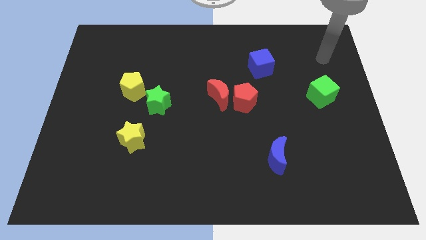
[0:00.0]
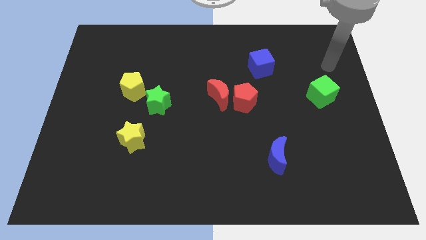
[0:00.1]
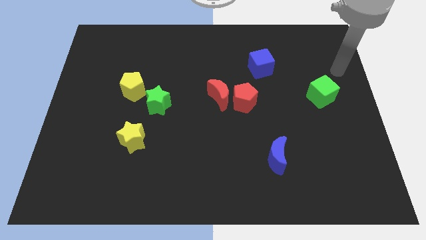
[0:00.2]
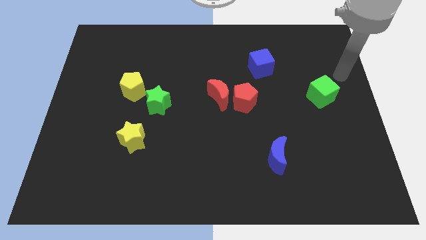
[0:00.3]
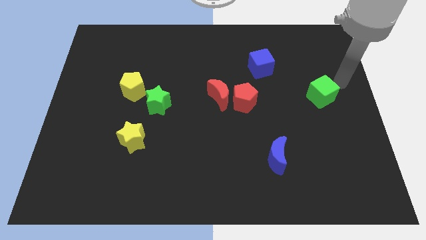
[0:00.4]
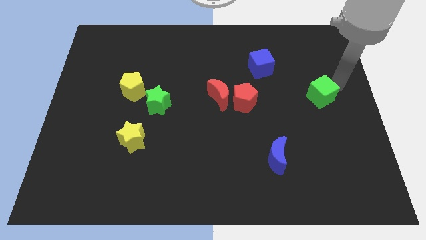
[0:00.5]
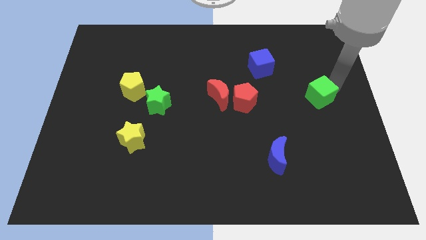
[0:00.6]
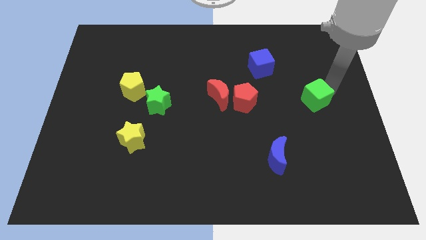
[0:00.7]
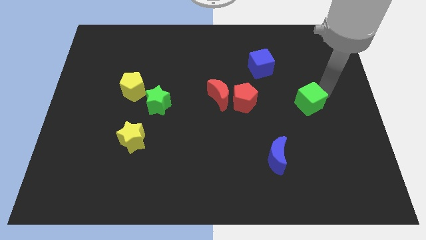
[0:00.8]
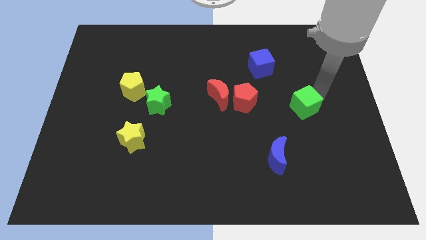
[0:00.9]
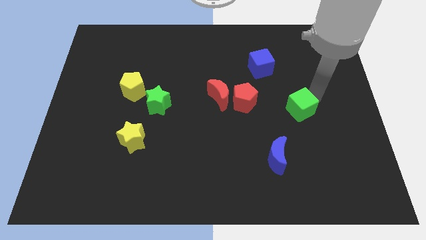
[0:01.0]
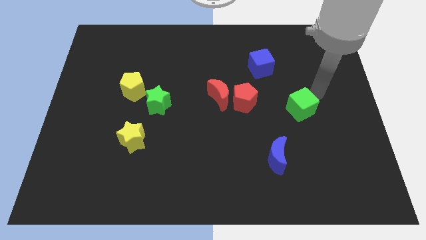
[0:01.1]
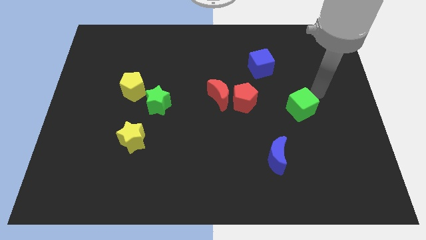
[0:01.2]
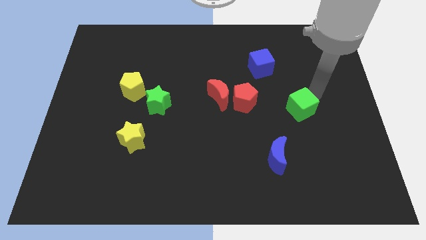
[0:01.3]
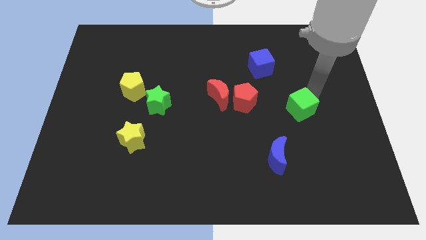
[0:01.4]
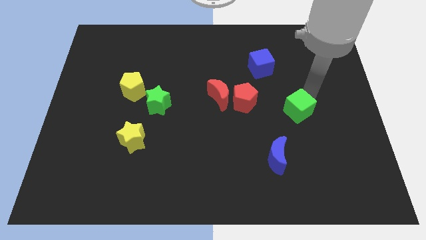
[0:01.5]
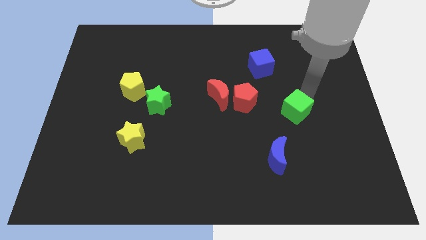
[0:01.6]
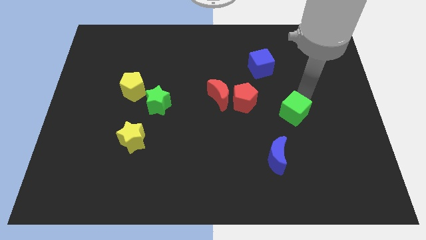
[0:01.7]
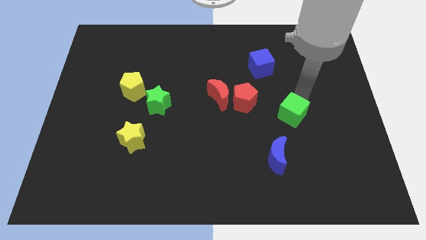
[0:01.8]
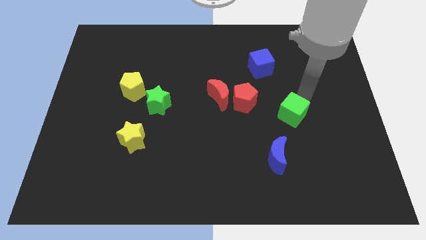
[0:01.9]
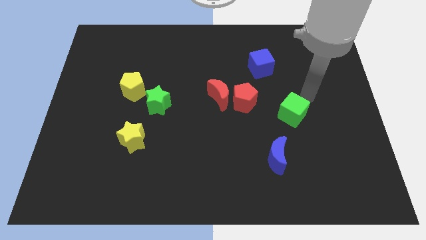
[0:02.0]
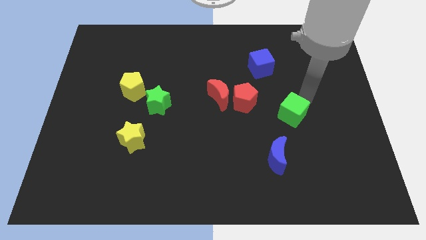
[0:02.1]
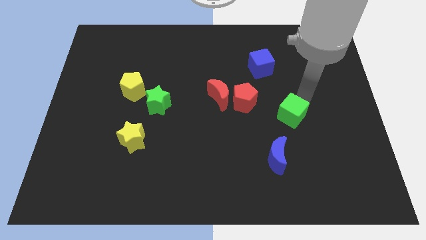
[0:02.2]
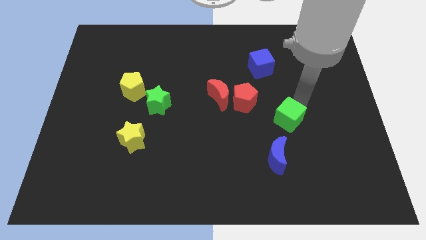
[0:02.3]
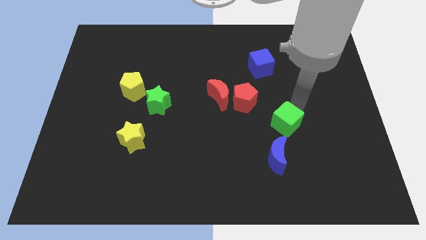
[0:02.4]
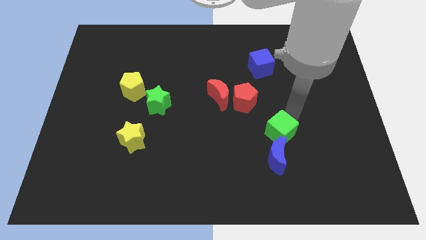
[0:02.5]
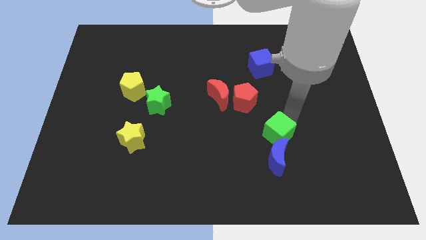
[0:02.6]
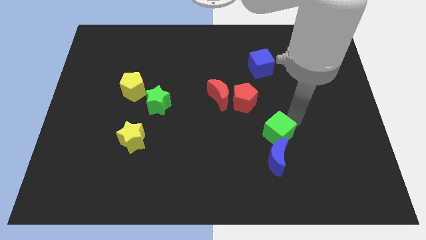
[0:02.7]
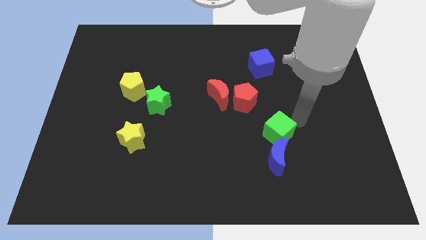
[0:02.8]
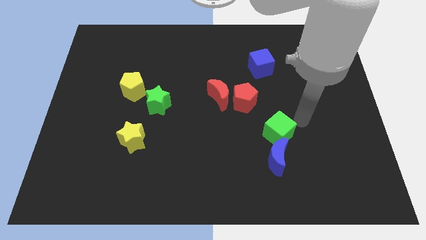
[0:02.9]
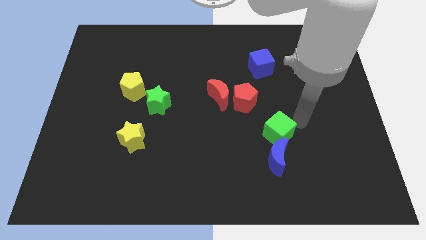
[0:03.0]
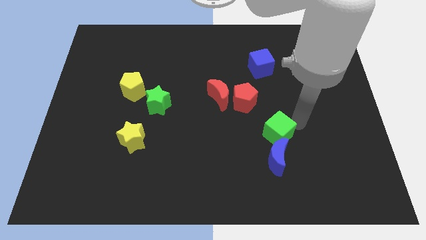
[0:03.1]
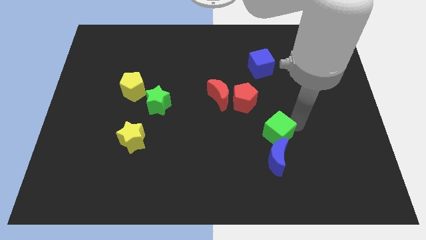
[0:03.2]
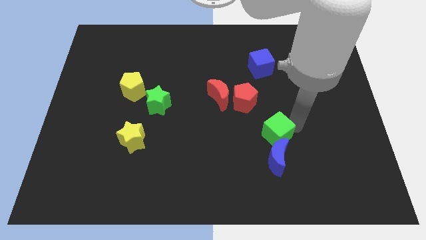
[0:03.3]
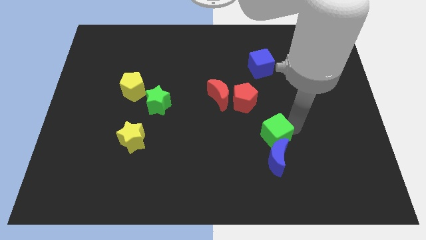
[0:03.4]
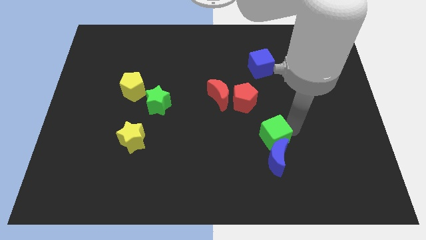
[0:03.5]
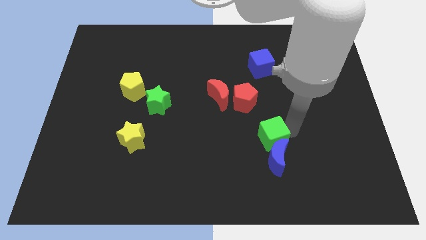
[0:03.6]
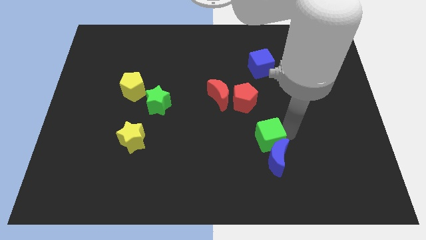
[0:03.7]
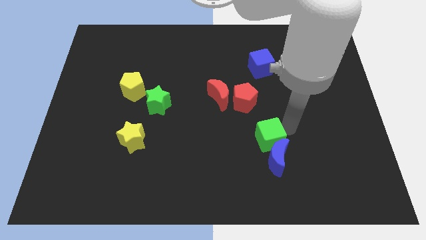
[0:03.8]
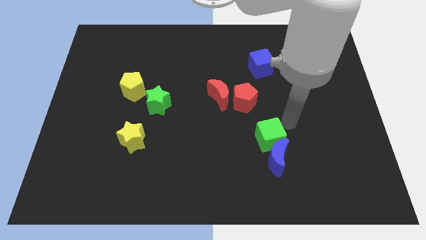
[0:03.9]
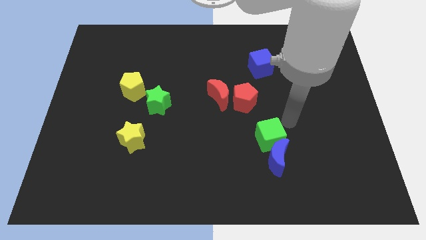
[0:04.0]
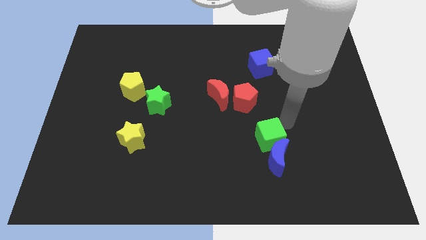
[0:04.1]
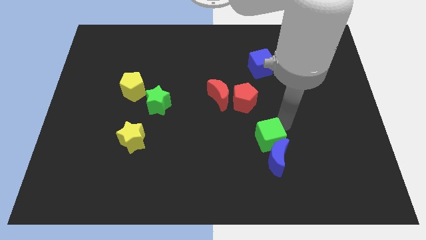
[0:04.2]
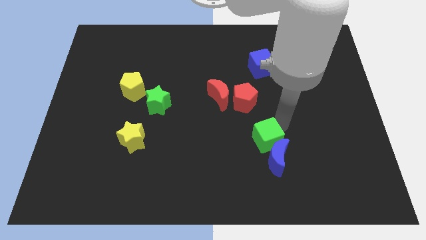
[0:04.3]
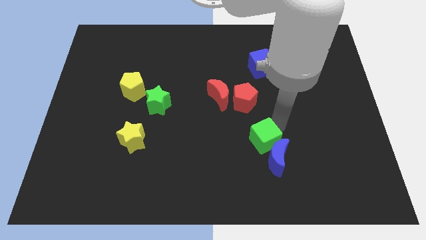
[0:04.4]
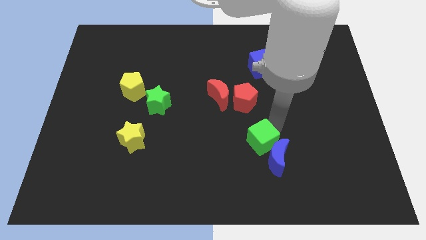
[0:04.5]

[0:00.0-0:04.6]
push the green cube downwards and left diagonally

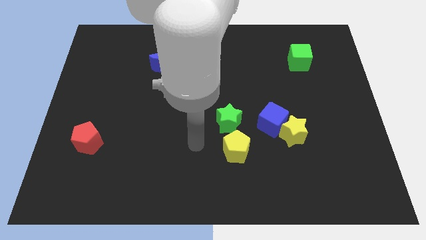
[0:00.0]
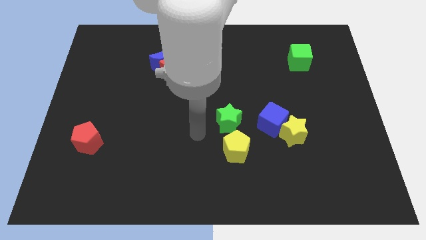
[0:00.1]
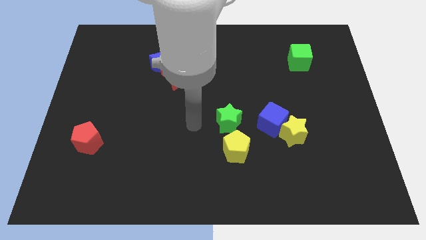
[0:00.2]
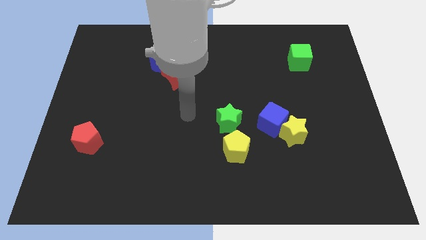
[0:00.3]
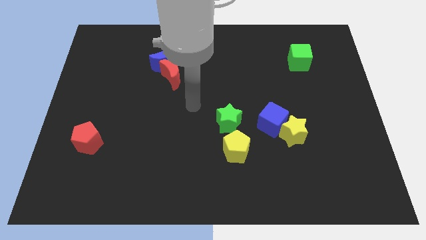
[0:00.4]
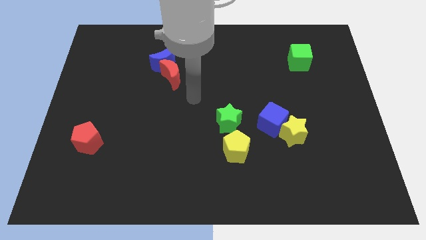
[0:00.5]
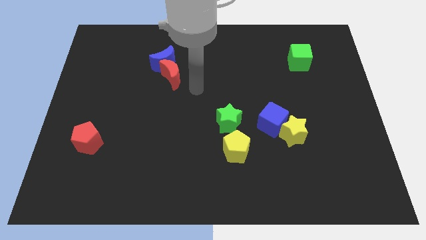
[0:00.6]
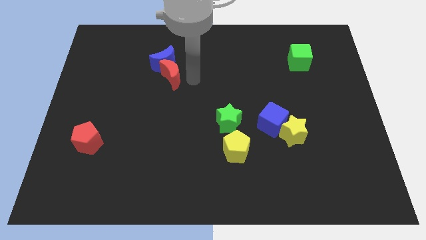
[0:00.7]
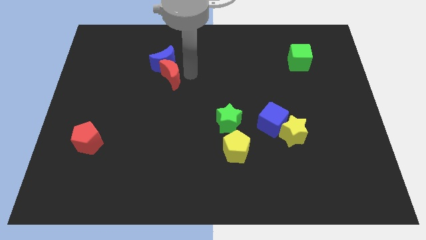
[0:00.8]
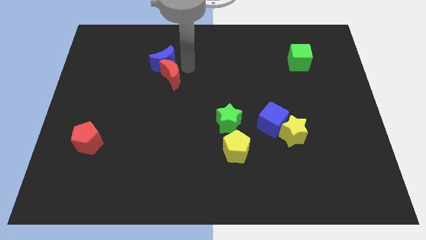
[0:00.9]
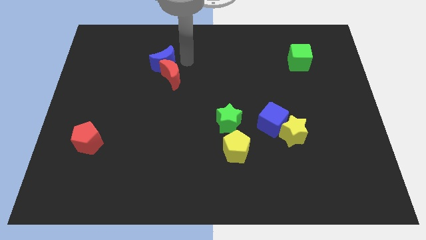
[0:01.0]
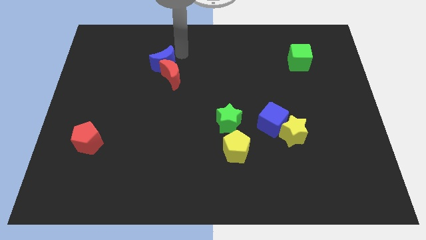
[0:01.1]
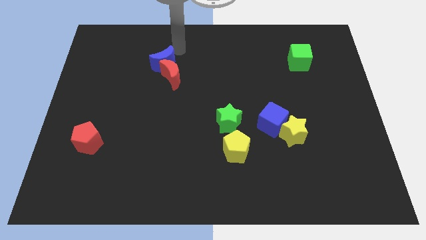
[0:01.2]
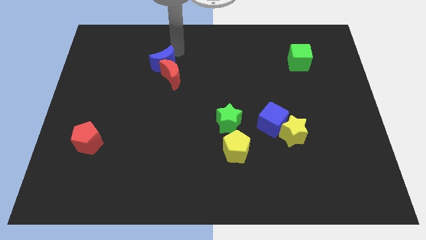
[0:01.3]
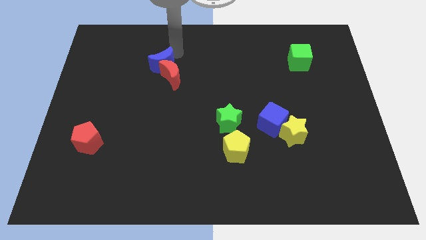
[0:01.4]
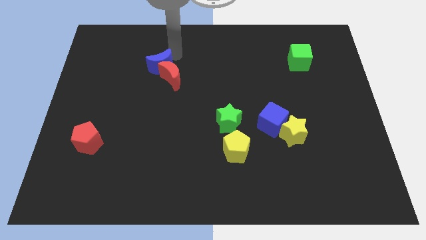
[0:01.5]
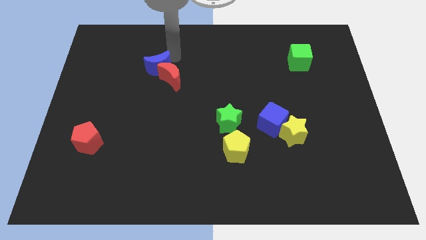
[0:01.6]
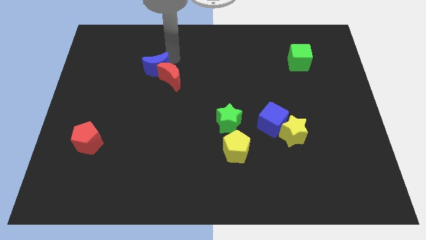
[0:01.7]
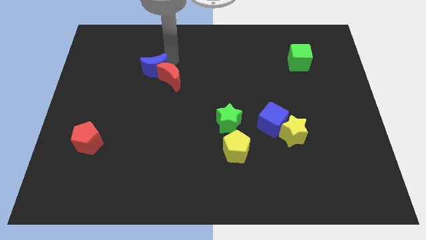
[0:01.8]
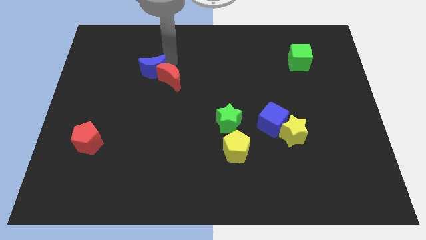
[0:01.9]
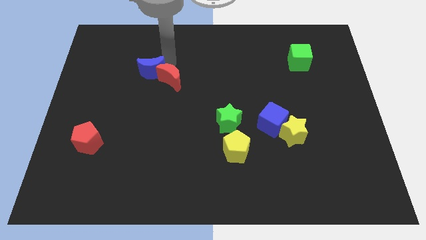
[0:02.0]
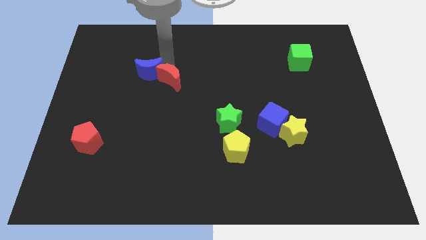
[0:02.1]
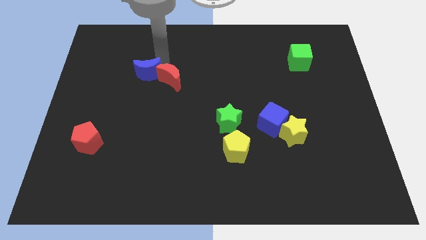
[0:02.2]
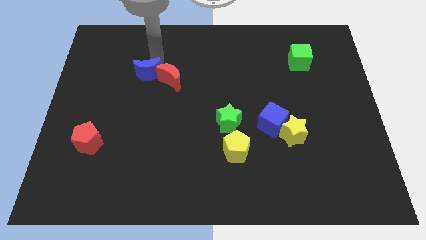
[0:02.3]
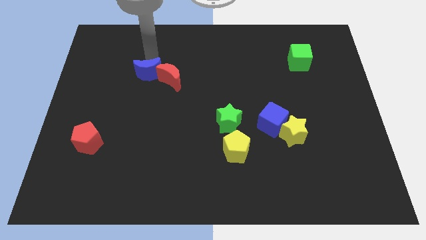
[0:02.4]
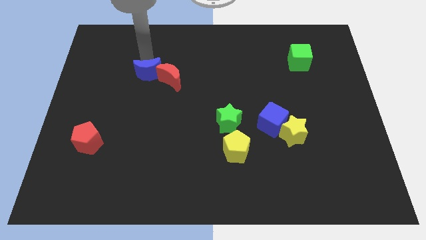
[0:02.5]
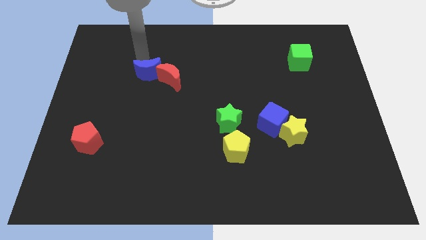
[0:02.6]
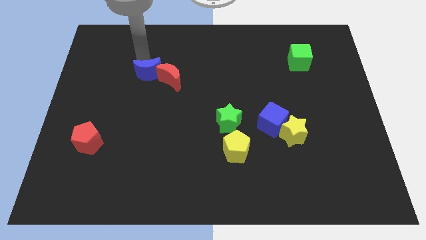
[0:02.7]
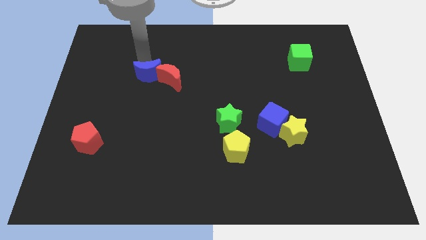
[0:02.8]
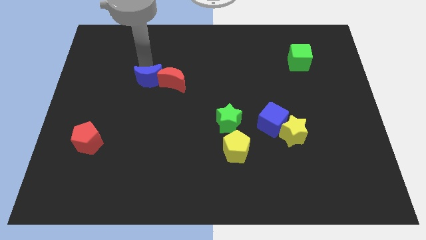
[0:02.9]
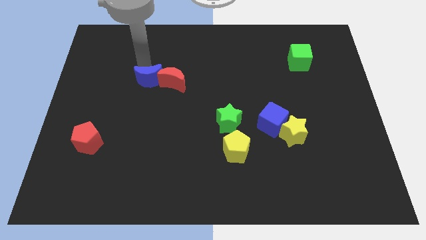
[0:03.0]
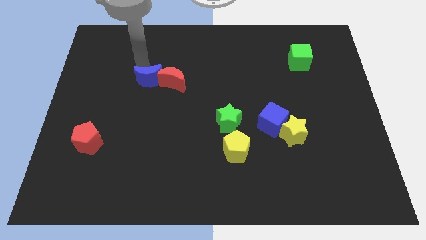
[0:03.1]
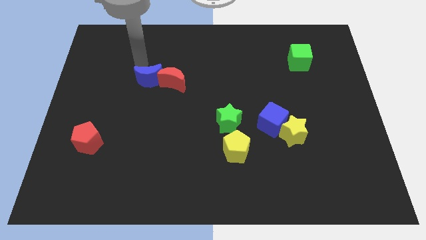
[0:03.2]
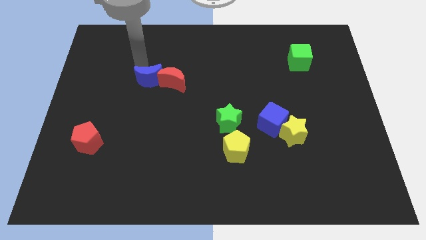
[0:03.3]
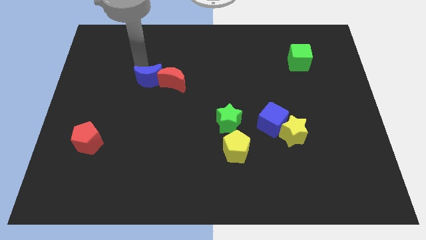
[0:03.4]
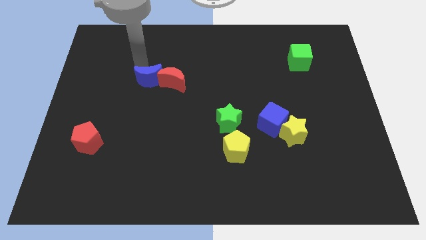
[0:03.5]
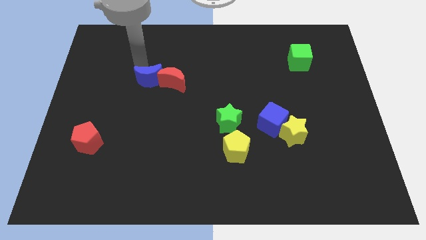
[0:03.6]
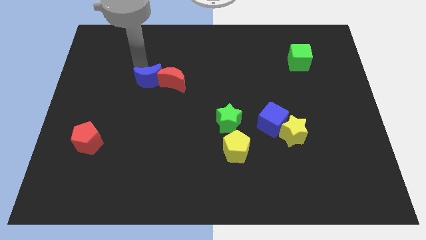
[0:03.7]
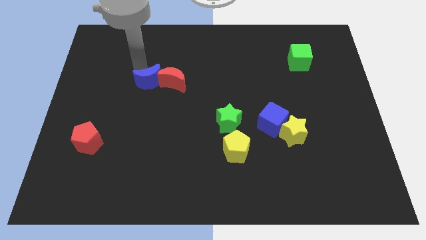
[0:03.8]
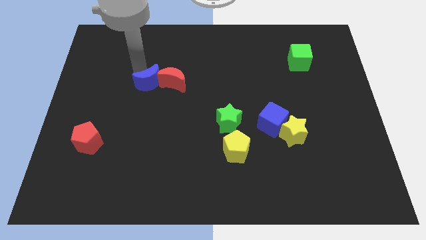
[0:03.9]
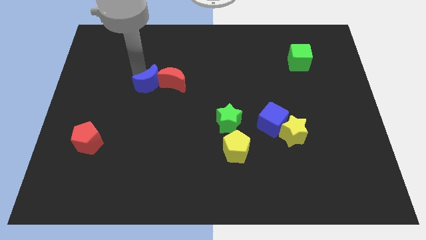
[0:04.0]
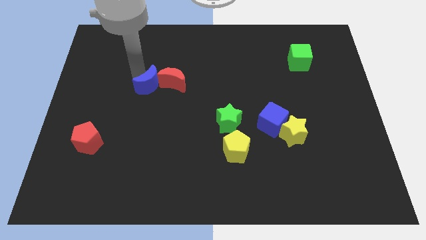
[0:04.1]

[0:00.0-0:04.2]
push the blue moon slightly downwards
